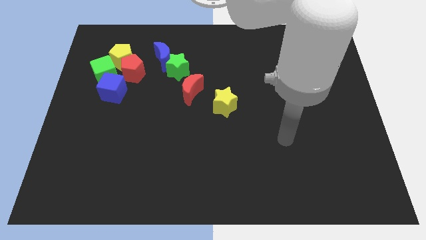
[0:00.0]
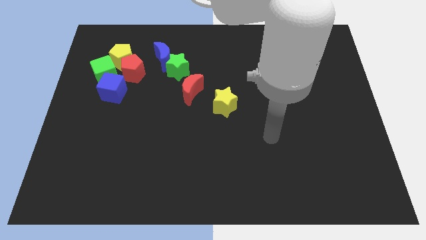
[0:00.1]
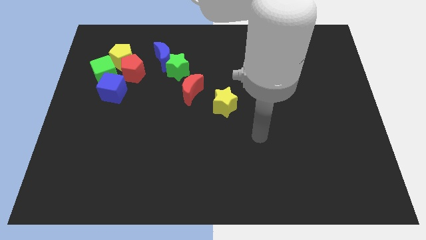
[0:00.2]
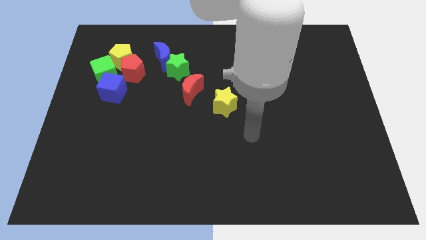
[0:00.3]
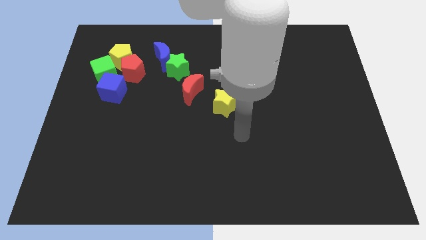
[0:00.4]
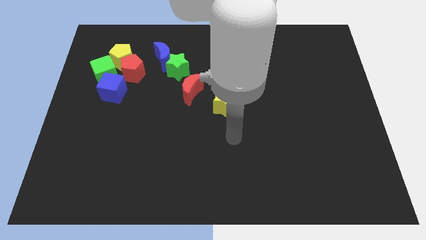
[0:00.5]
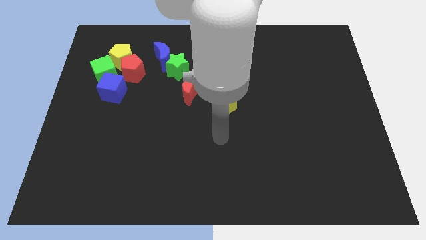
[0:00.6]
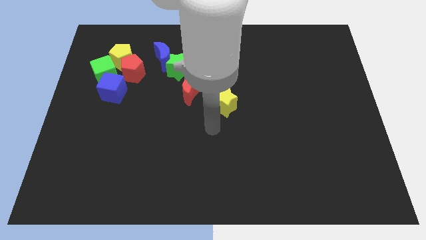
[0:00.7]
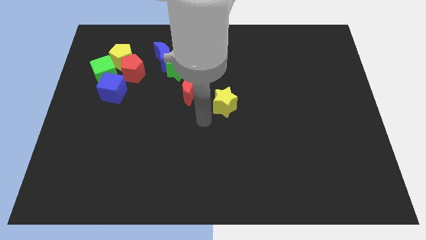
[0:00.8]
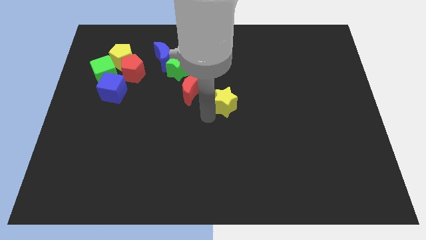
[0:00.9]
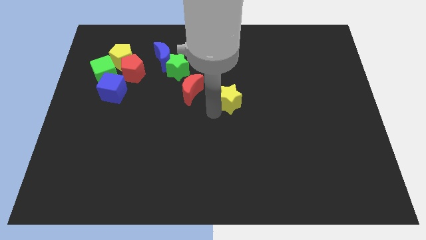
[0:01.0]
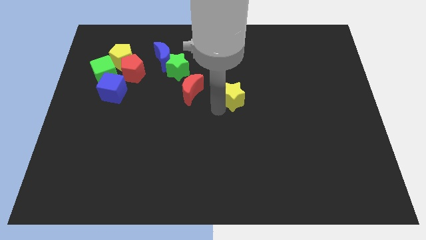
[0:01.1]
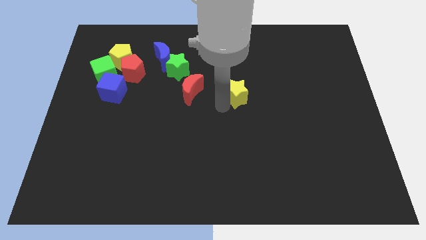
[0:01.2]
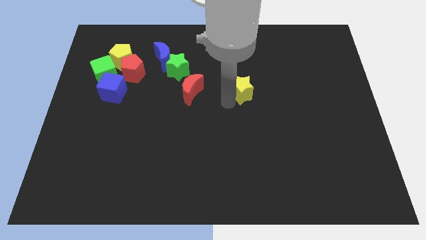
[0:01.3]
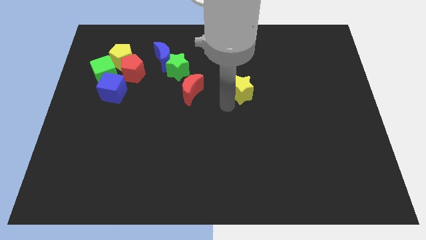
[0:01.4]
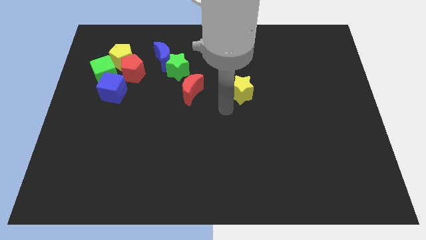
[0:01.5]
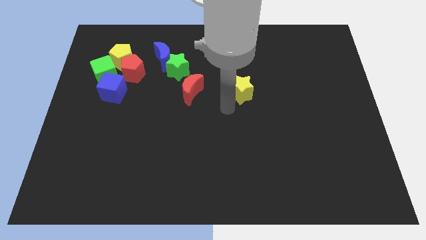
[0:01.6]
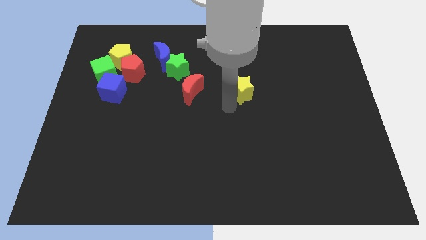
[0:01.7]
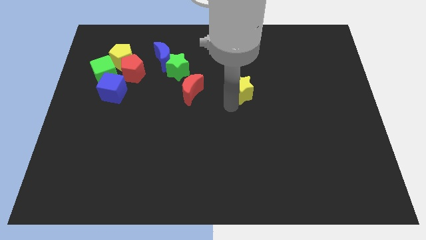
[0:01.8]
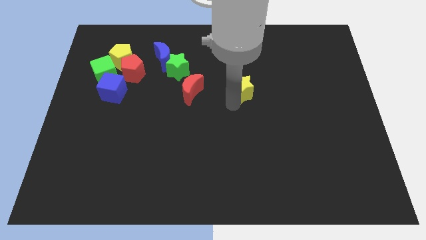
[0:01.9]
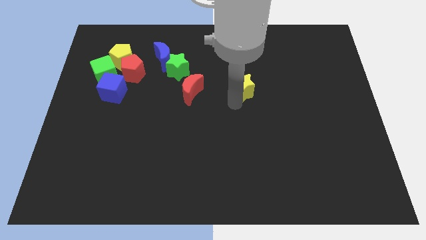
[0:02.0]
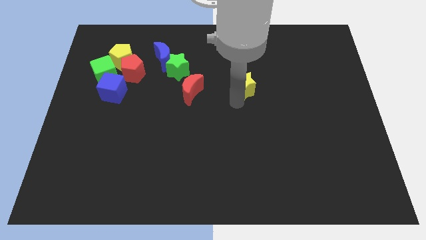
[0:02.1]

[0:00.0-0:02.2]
push the yellow star diagonally upwards and to the right a little bit

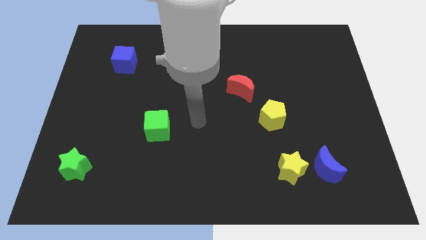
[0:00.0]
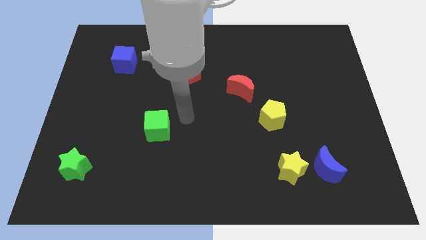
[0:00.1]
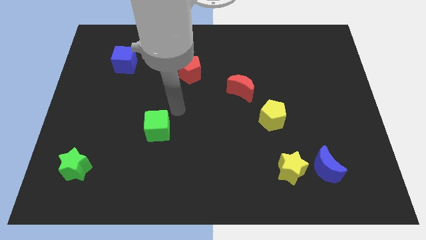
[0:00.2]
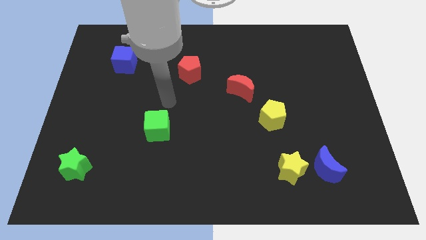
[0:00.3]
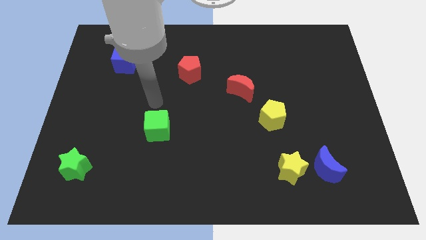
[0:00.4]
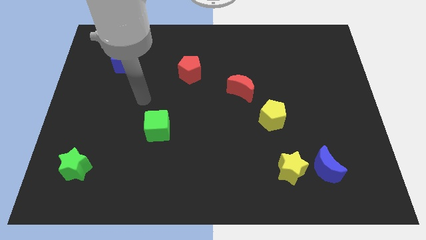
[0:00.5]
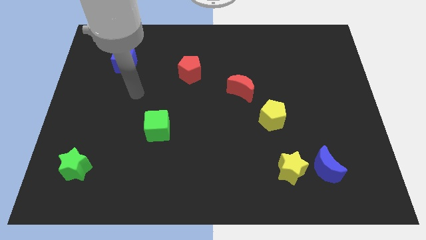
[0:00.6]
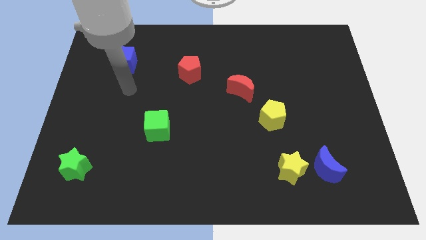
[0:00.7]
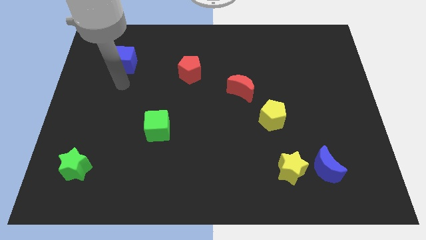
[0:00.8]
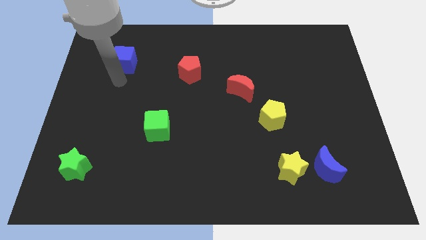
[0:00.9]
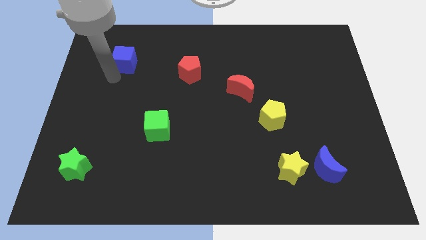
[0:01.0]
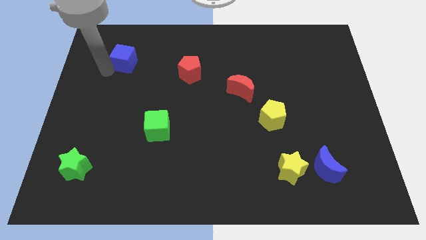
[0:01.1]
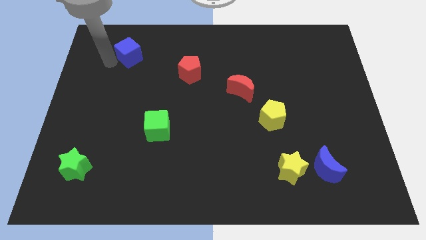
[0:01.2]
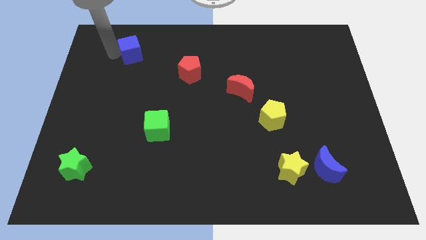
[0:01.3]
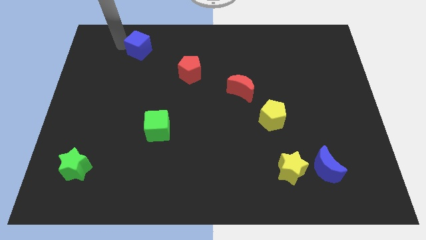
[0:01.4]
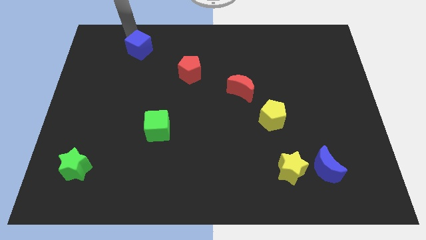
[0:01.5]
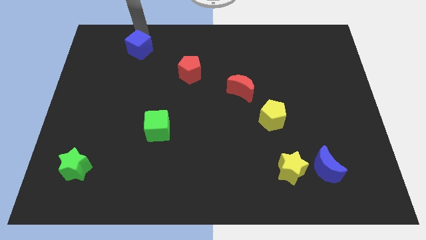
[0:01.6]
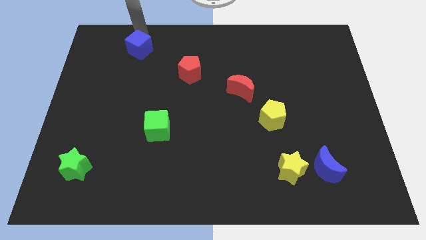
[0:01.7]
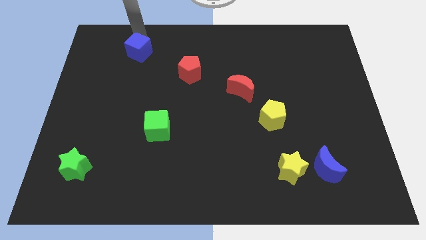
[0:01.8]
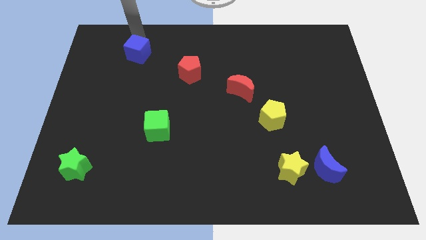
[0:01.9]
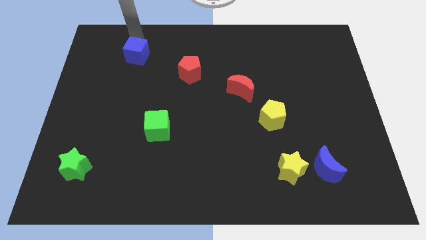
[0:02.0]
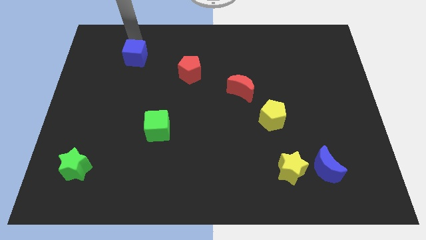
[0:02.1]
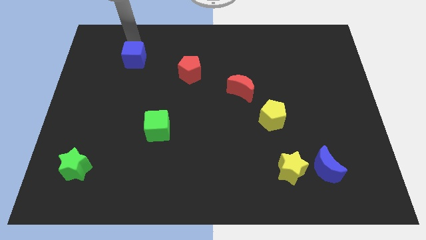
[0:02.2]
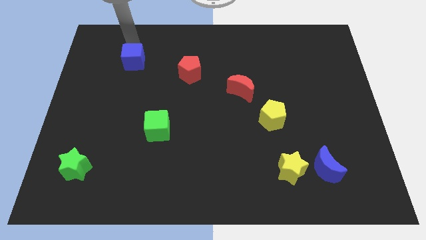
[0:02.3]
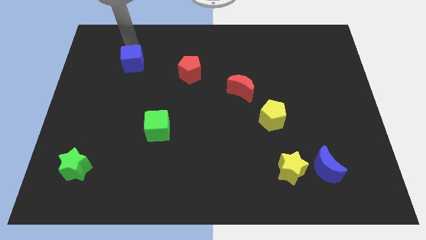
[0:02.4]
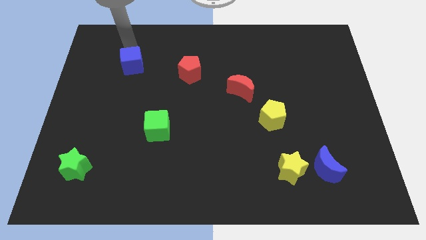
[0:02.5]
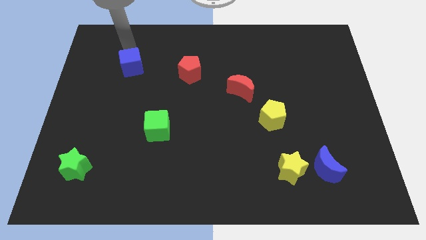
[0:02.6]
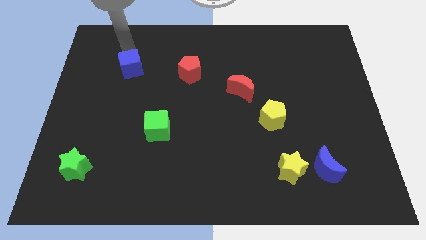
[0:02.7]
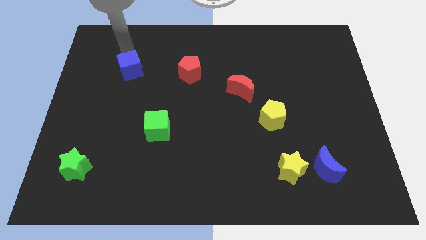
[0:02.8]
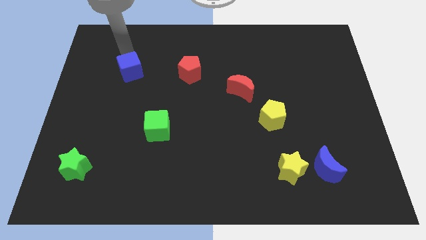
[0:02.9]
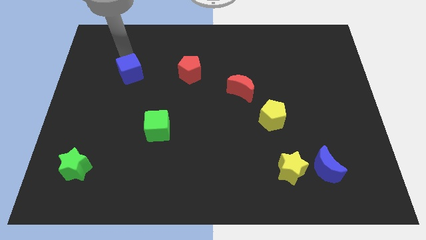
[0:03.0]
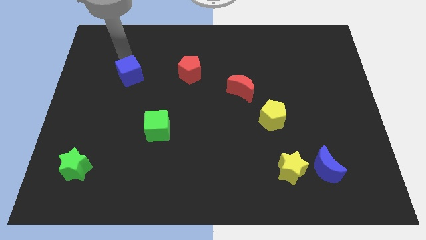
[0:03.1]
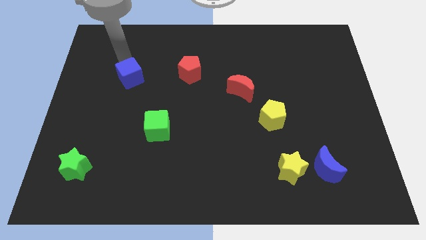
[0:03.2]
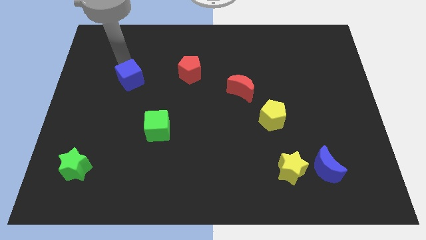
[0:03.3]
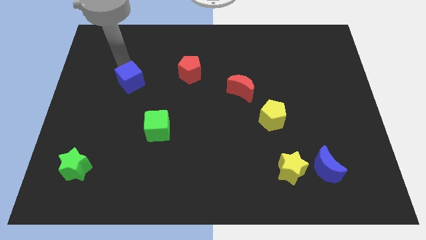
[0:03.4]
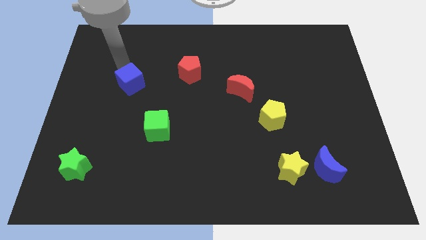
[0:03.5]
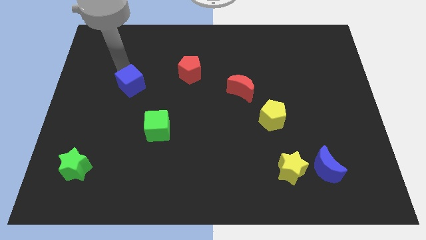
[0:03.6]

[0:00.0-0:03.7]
slide the blue cube down and to the right slightly

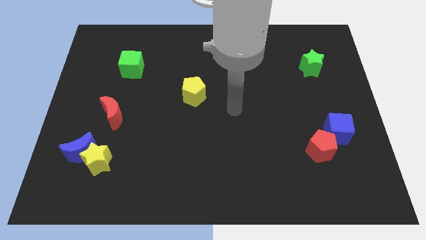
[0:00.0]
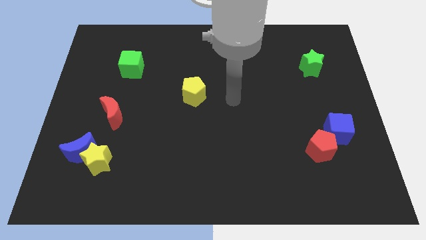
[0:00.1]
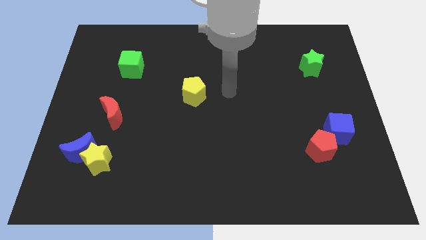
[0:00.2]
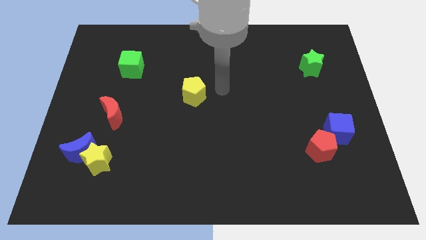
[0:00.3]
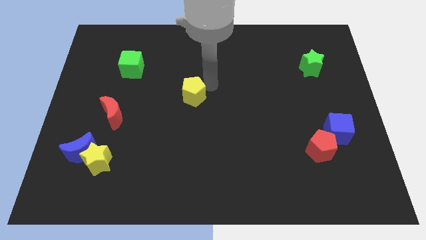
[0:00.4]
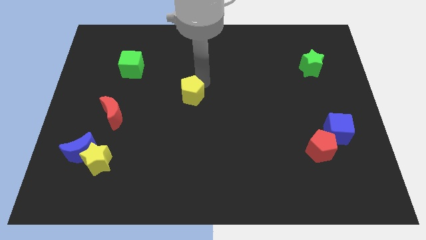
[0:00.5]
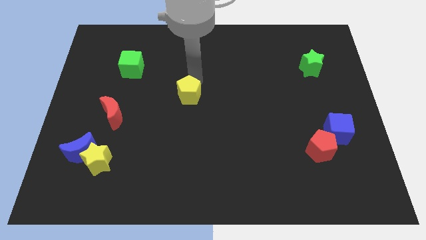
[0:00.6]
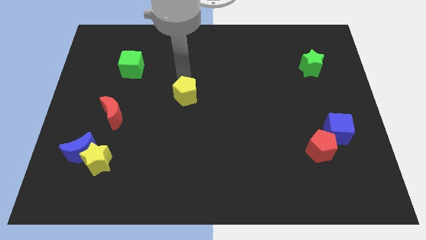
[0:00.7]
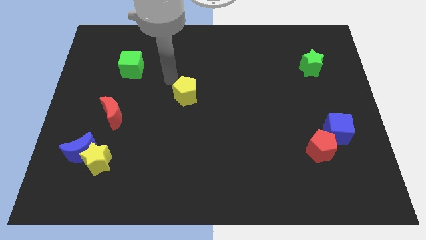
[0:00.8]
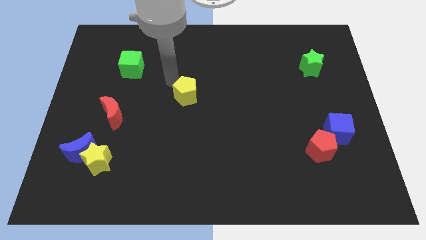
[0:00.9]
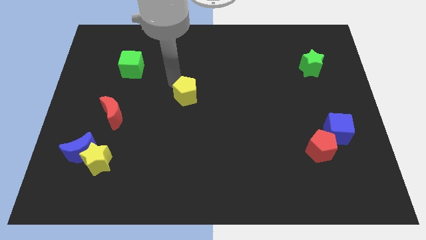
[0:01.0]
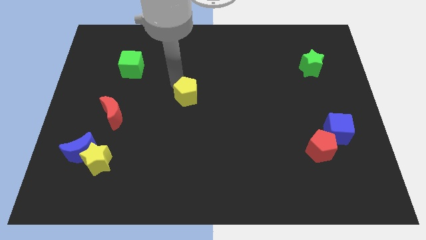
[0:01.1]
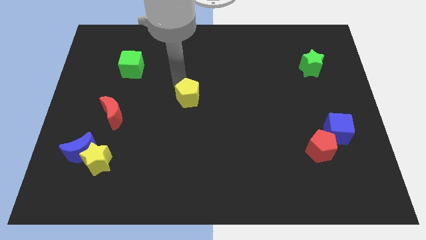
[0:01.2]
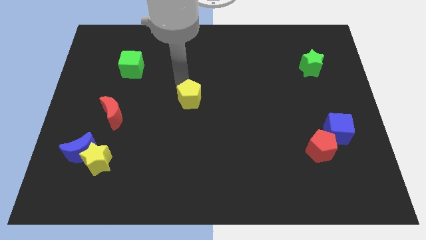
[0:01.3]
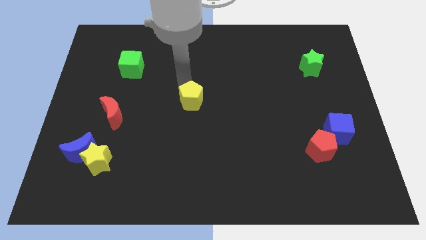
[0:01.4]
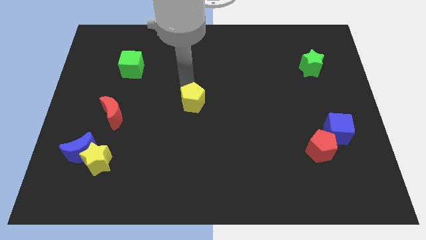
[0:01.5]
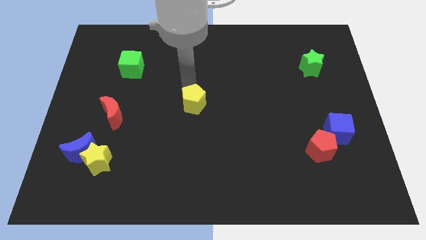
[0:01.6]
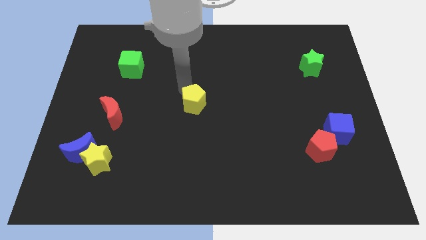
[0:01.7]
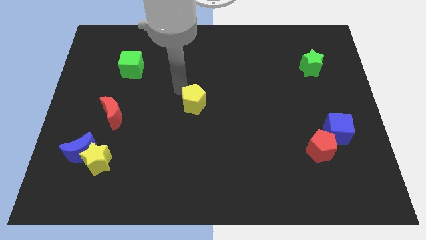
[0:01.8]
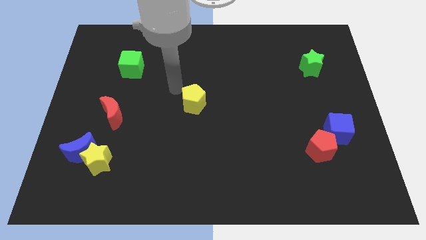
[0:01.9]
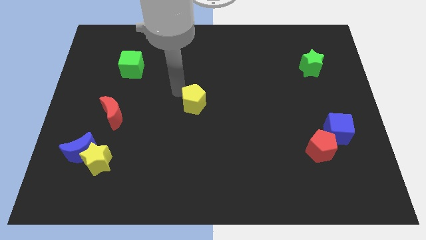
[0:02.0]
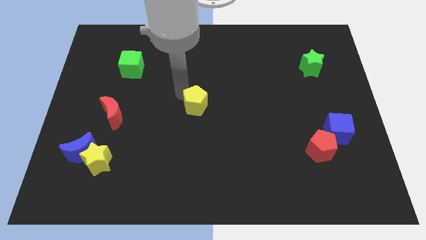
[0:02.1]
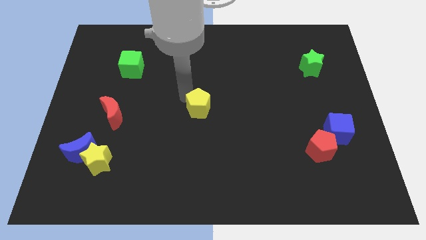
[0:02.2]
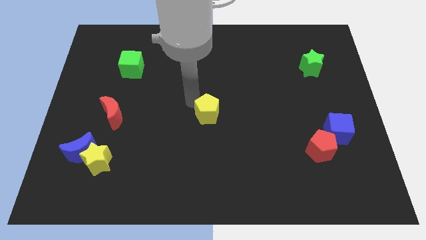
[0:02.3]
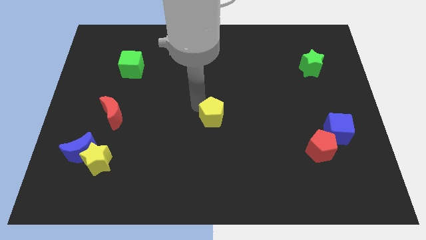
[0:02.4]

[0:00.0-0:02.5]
slightly slide the yellow pentagon down and then right
